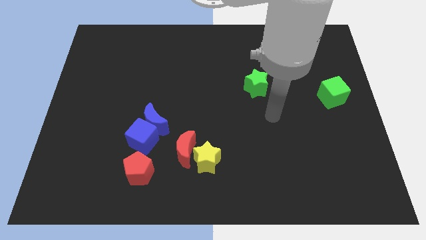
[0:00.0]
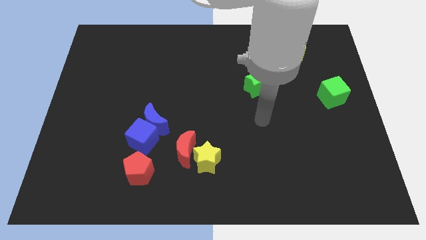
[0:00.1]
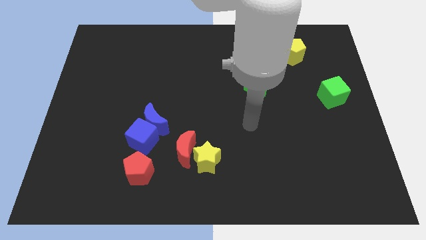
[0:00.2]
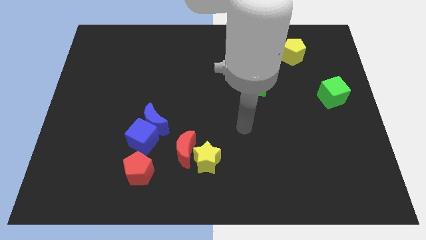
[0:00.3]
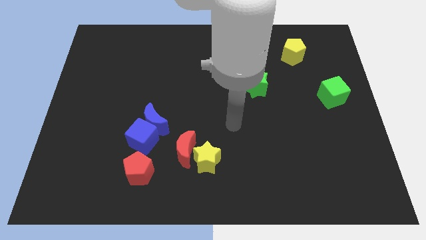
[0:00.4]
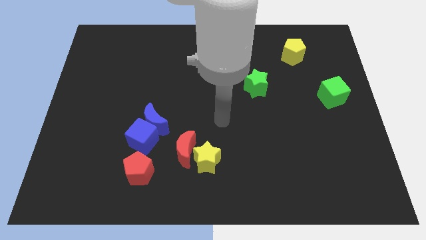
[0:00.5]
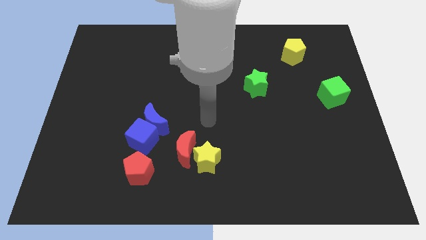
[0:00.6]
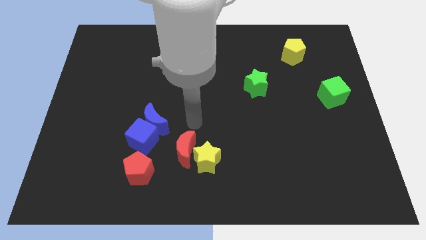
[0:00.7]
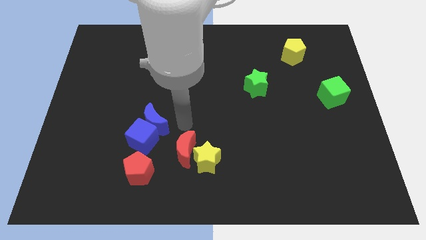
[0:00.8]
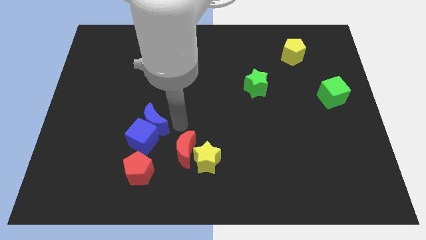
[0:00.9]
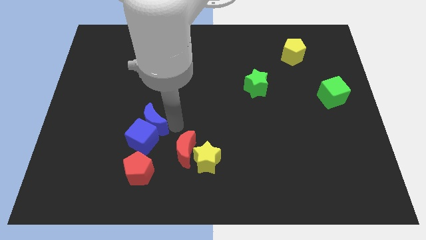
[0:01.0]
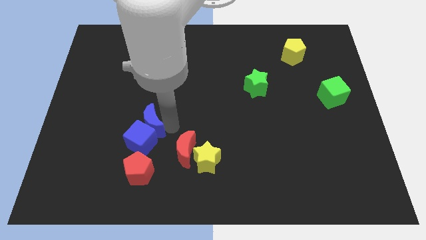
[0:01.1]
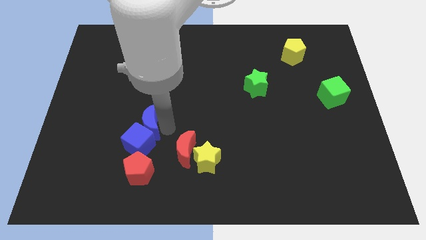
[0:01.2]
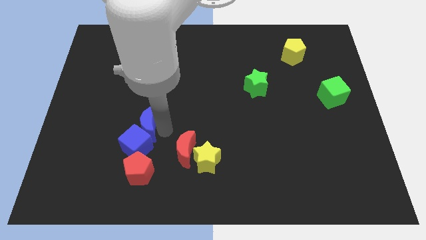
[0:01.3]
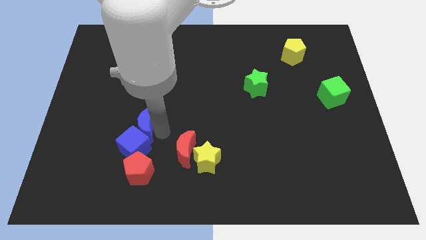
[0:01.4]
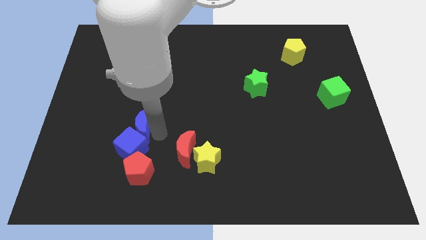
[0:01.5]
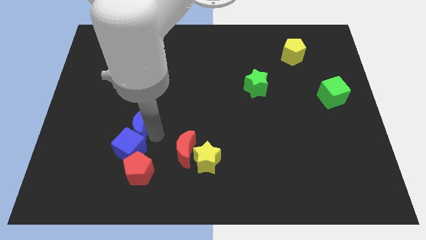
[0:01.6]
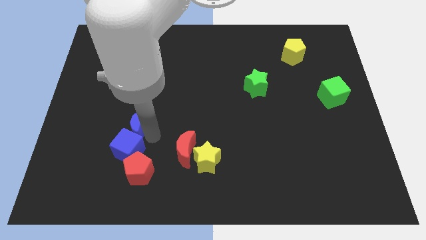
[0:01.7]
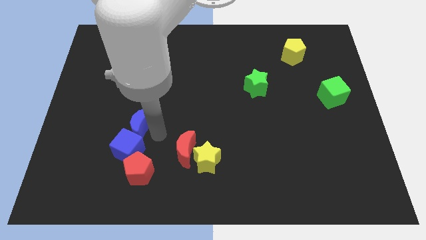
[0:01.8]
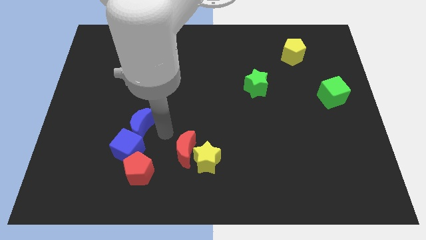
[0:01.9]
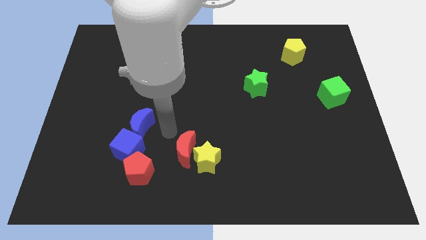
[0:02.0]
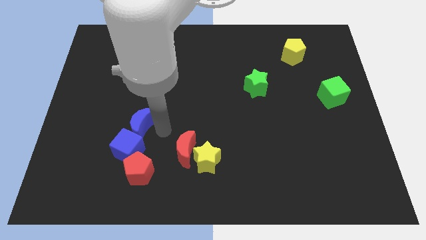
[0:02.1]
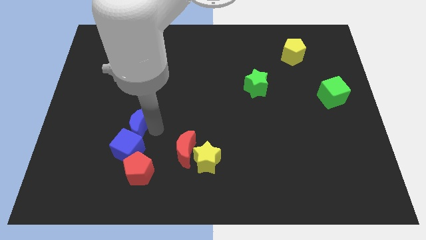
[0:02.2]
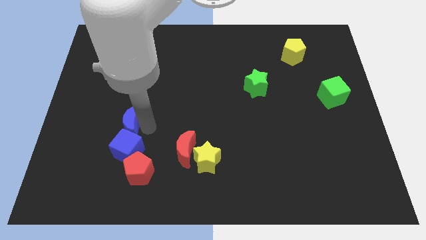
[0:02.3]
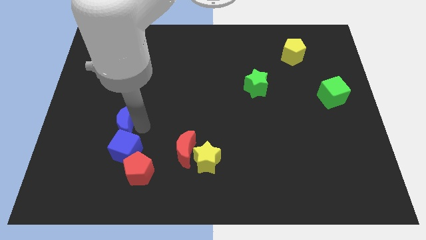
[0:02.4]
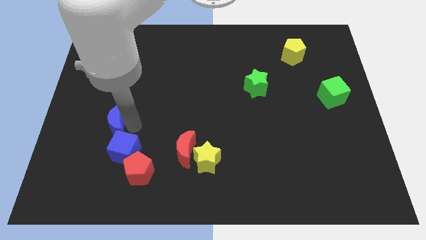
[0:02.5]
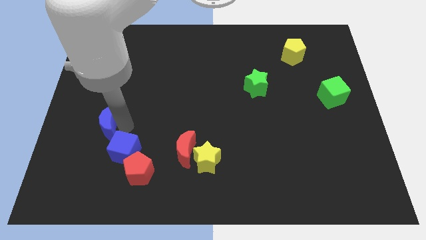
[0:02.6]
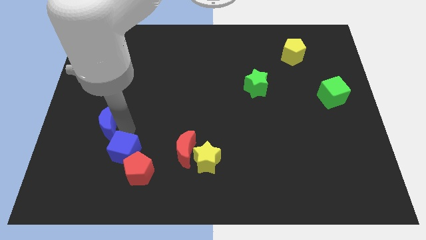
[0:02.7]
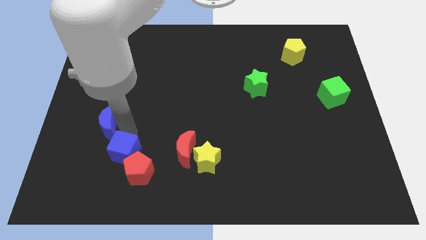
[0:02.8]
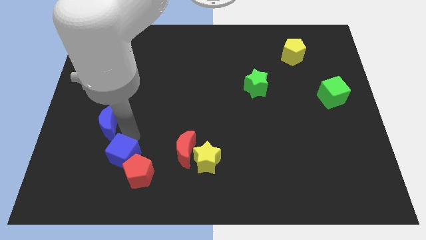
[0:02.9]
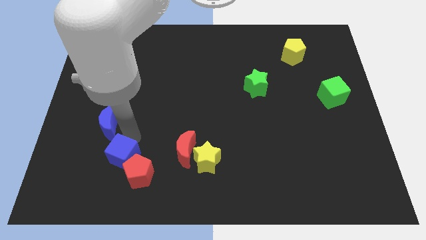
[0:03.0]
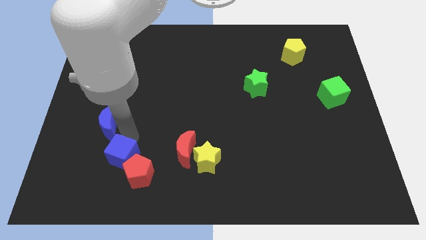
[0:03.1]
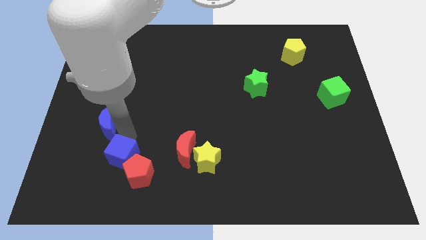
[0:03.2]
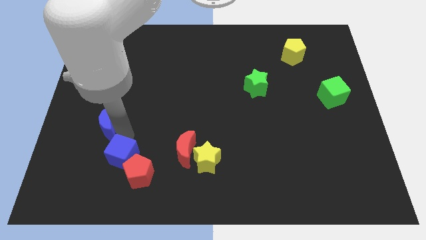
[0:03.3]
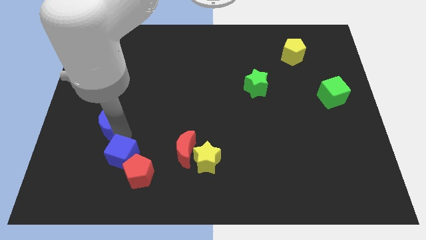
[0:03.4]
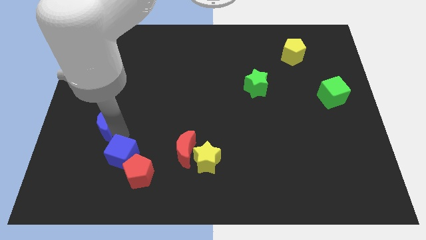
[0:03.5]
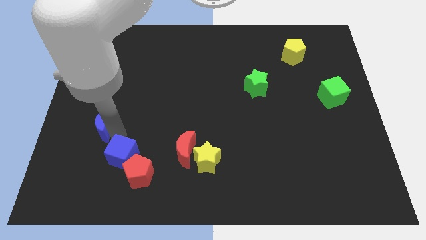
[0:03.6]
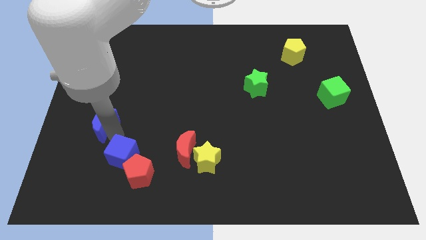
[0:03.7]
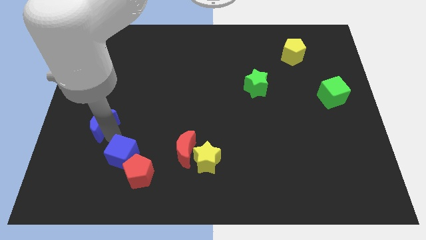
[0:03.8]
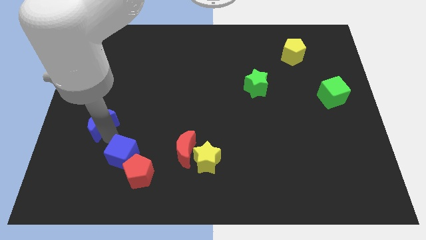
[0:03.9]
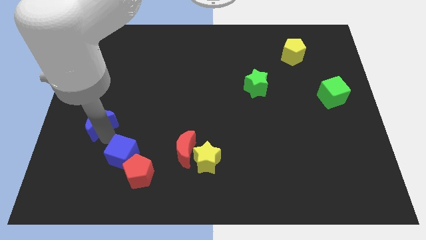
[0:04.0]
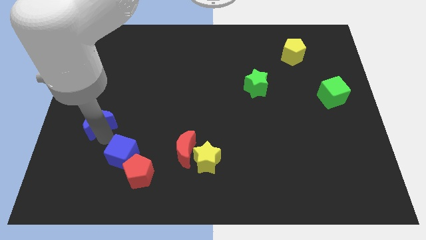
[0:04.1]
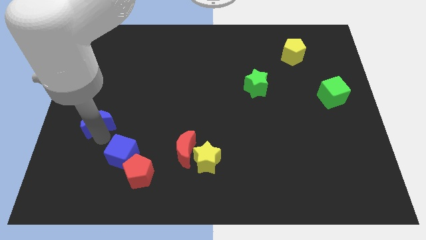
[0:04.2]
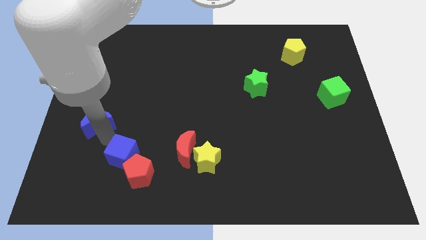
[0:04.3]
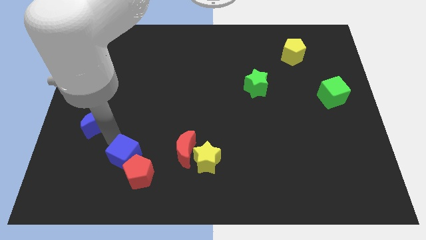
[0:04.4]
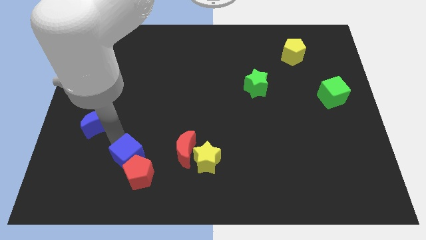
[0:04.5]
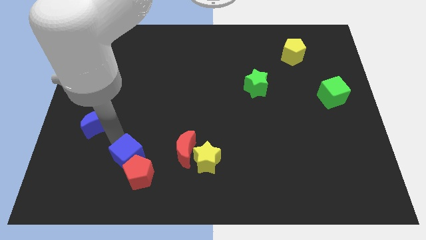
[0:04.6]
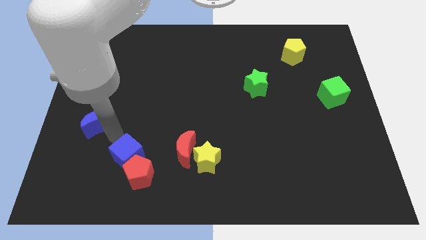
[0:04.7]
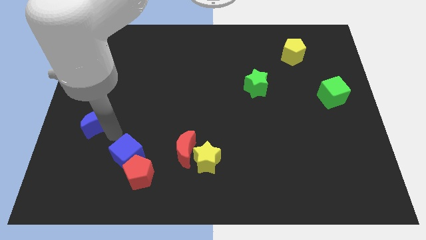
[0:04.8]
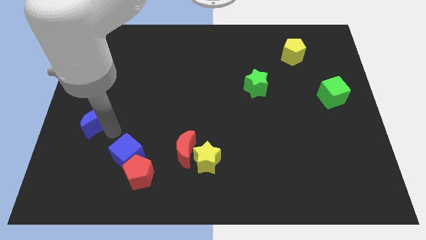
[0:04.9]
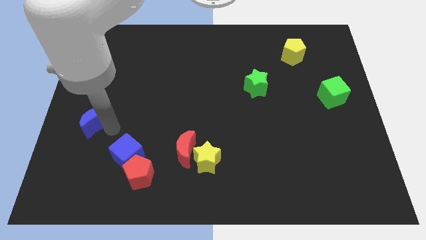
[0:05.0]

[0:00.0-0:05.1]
push the blue moon to the left side of the board

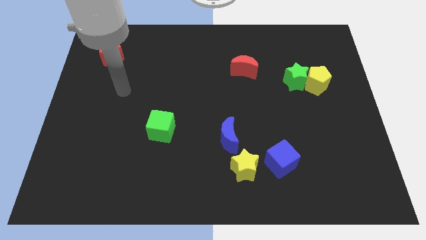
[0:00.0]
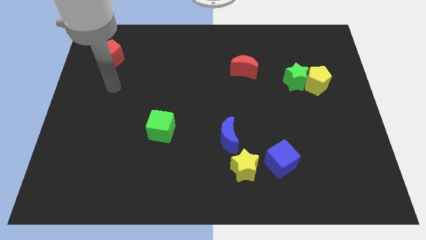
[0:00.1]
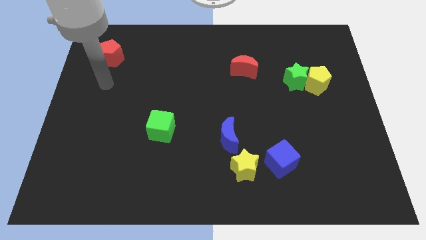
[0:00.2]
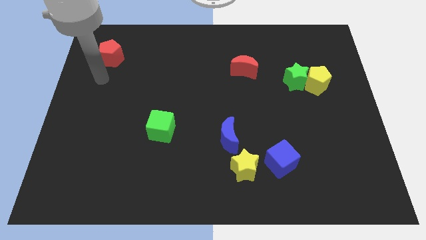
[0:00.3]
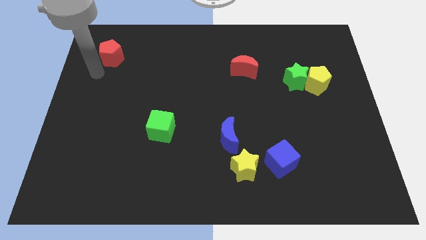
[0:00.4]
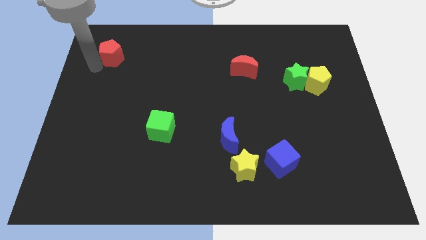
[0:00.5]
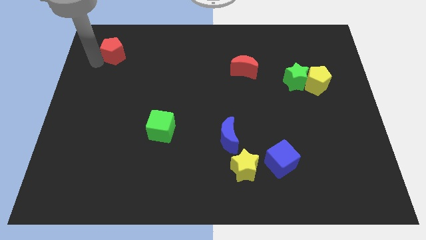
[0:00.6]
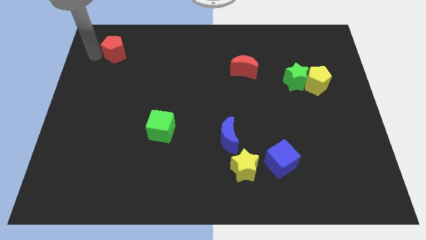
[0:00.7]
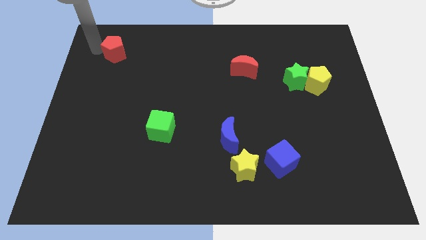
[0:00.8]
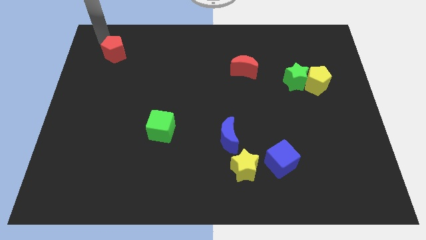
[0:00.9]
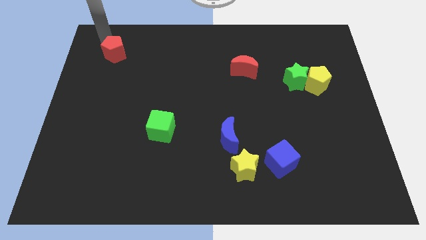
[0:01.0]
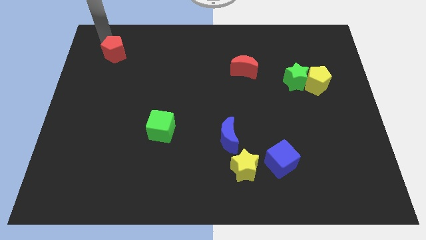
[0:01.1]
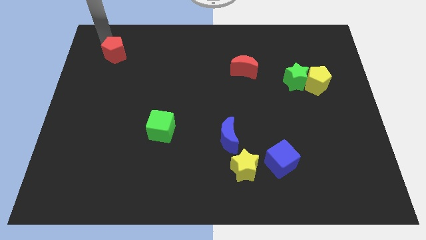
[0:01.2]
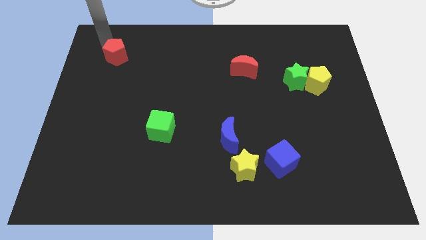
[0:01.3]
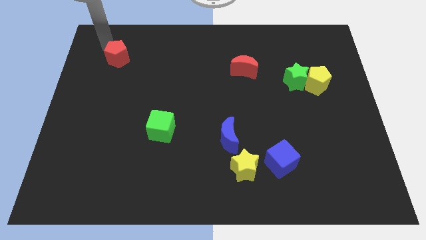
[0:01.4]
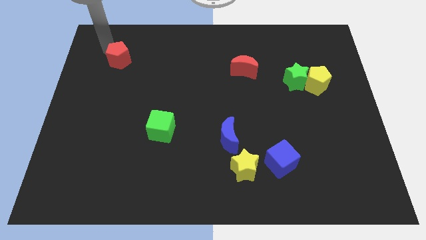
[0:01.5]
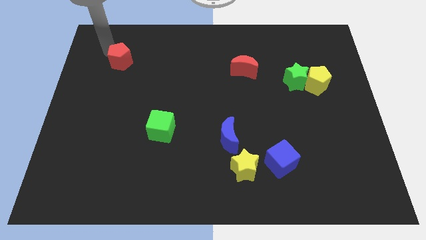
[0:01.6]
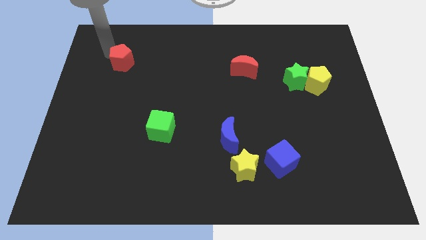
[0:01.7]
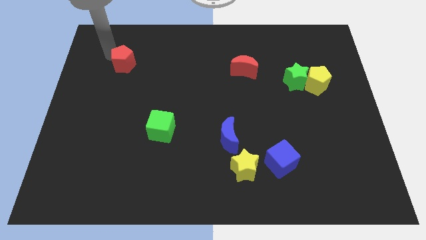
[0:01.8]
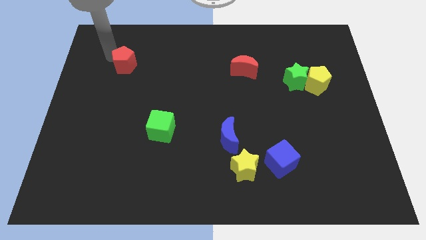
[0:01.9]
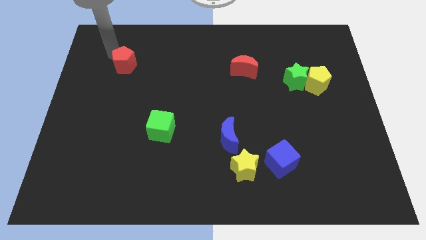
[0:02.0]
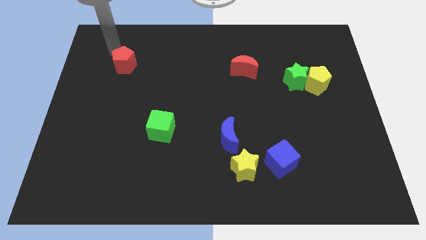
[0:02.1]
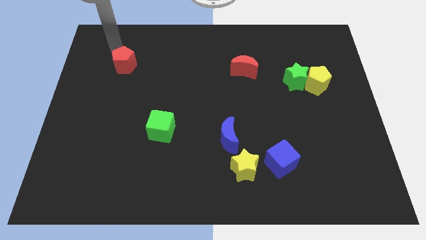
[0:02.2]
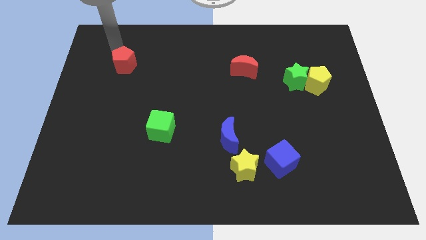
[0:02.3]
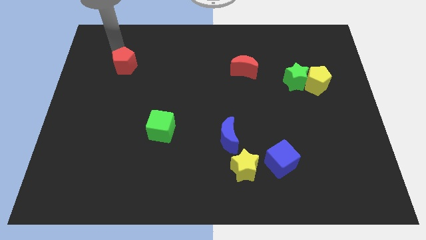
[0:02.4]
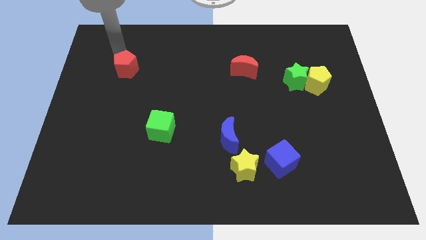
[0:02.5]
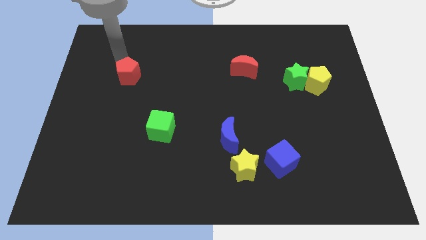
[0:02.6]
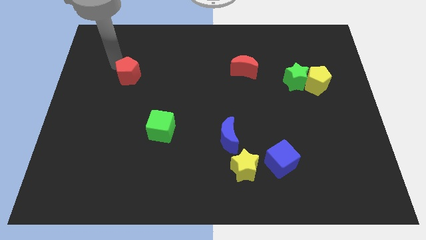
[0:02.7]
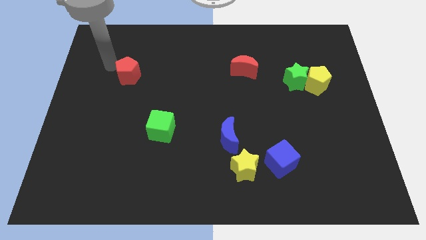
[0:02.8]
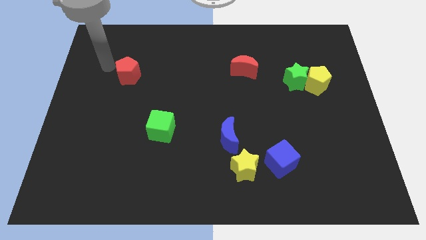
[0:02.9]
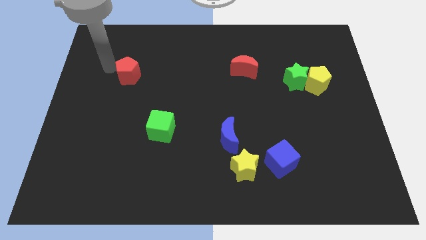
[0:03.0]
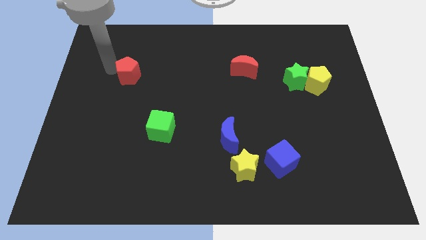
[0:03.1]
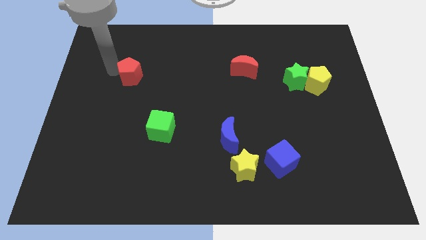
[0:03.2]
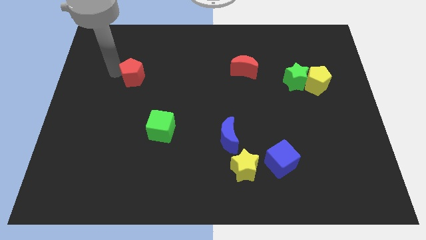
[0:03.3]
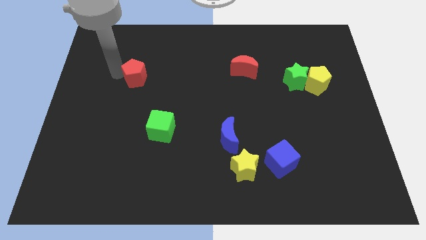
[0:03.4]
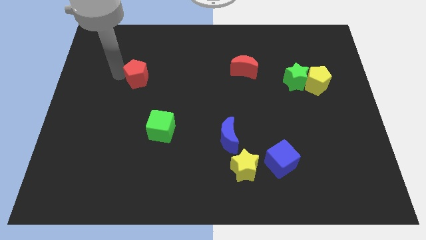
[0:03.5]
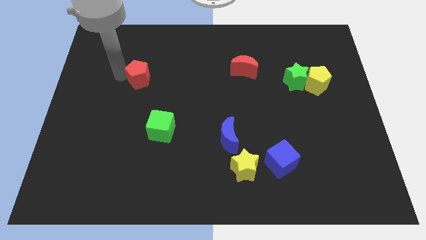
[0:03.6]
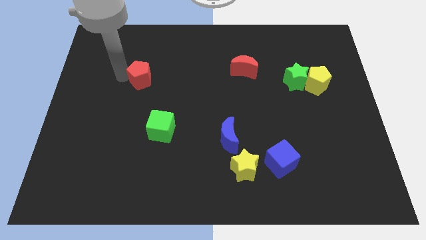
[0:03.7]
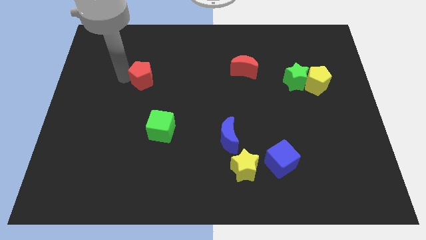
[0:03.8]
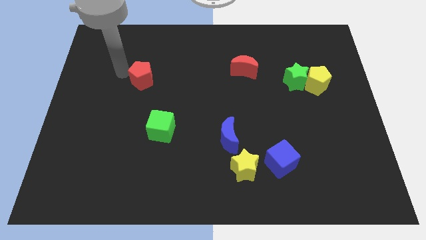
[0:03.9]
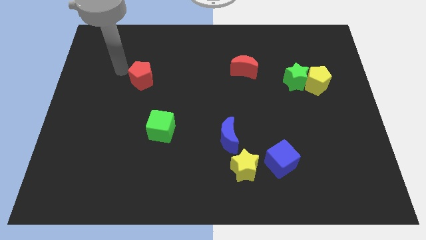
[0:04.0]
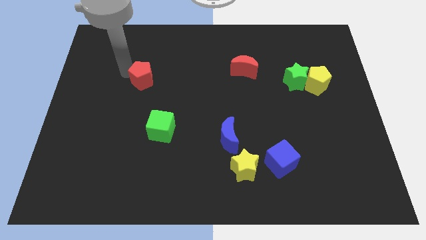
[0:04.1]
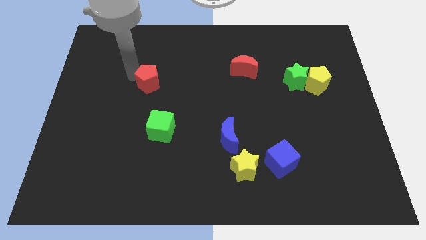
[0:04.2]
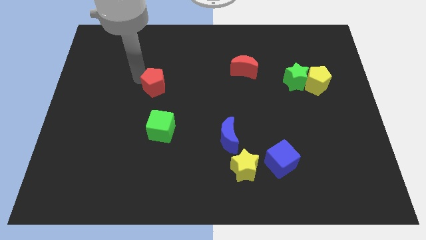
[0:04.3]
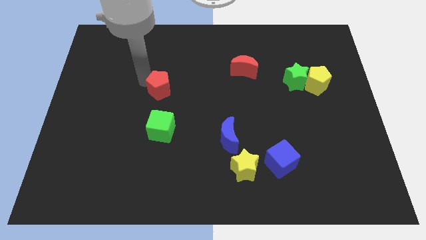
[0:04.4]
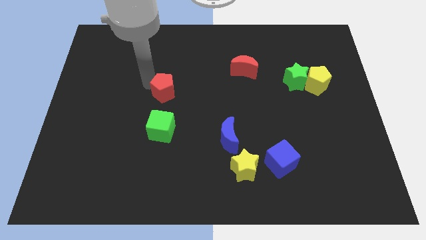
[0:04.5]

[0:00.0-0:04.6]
slide the red pentagon to the middle of the board
